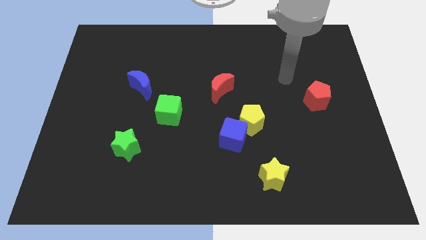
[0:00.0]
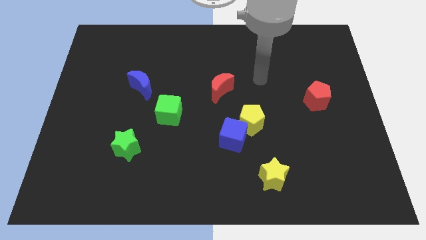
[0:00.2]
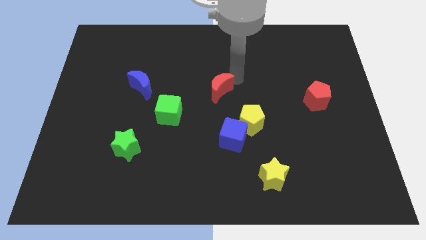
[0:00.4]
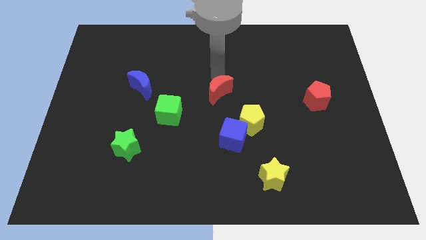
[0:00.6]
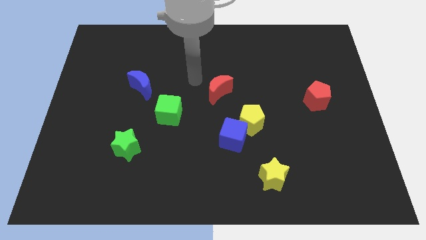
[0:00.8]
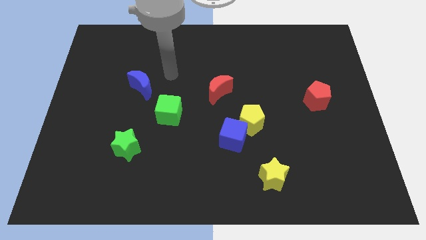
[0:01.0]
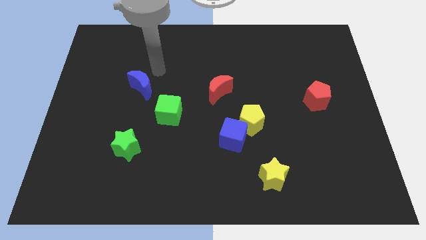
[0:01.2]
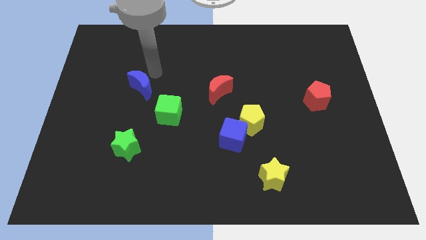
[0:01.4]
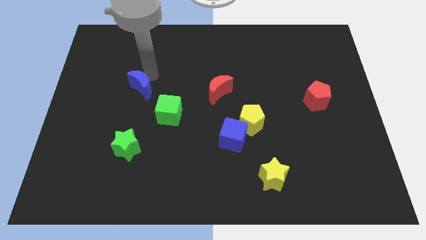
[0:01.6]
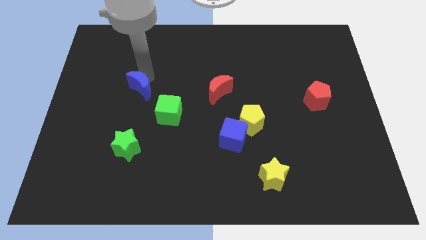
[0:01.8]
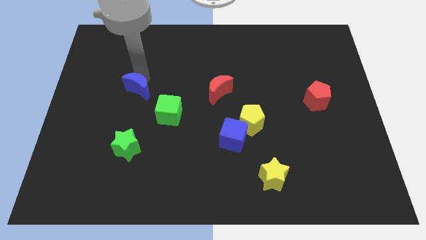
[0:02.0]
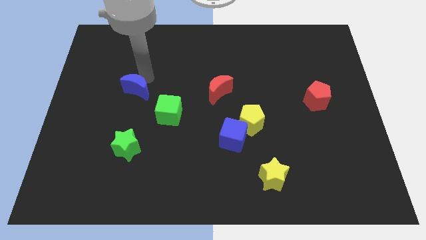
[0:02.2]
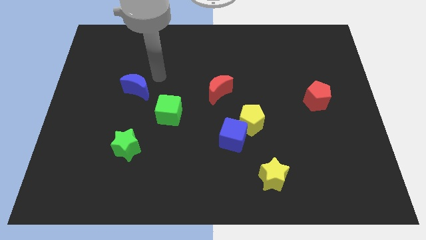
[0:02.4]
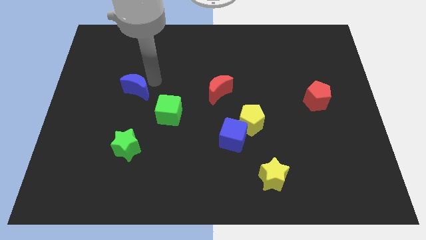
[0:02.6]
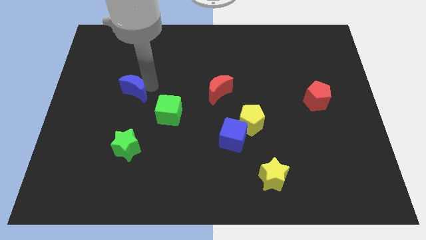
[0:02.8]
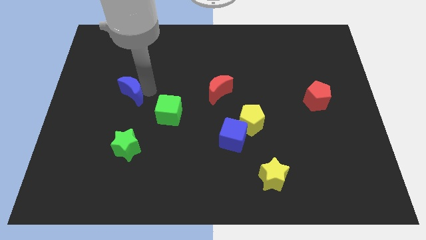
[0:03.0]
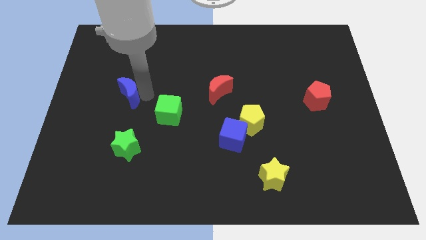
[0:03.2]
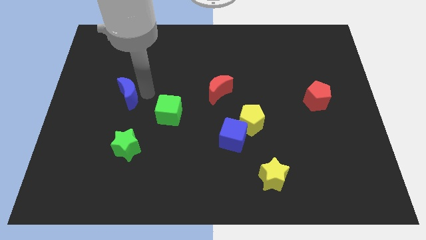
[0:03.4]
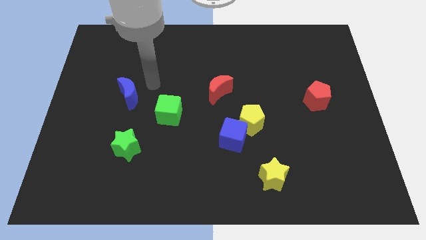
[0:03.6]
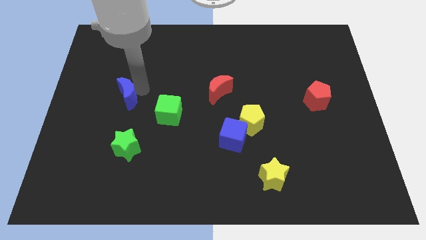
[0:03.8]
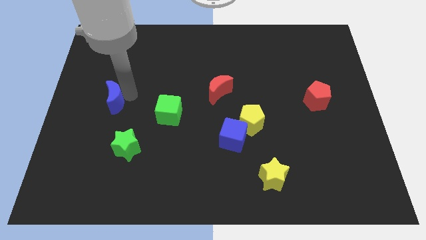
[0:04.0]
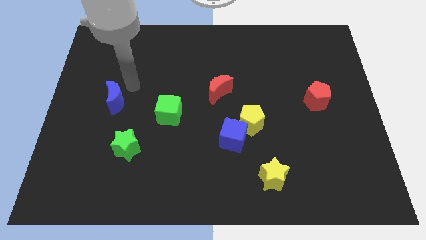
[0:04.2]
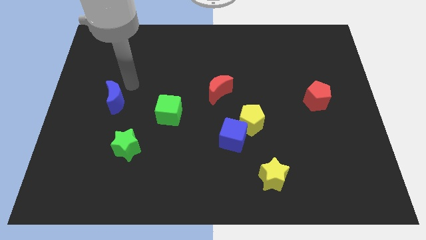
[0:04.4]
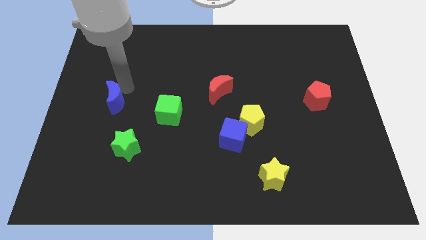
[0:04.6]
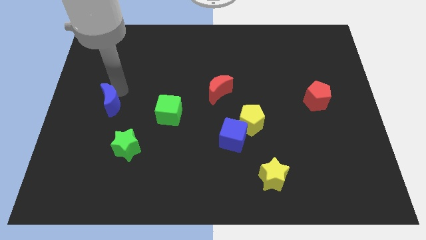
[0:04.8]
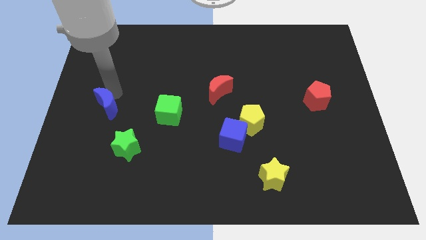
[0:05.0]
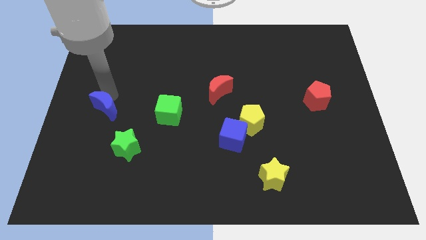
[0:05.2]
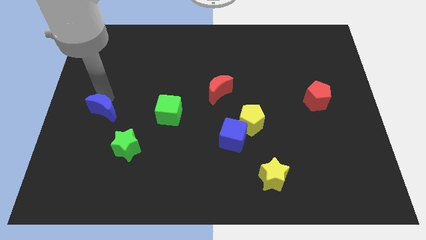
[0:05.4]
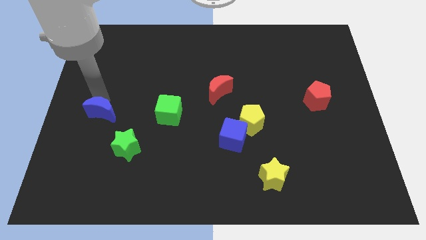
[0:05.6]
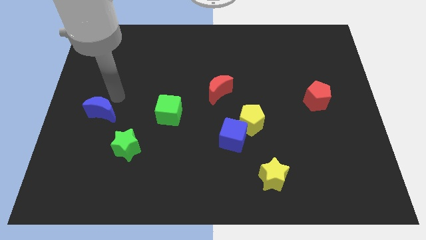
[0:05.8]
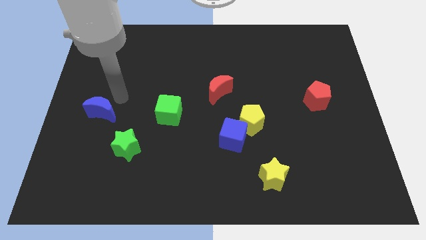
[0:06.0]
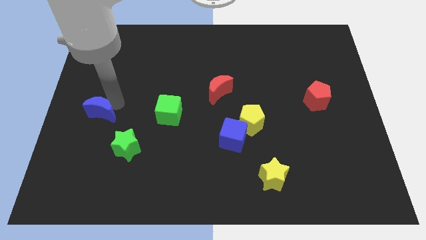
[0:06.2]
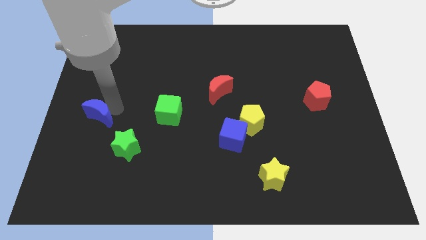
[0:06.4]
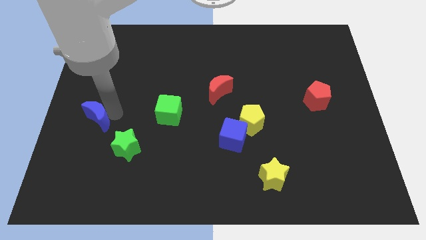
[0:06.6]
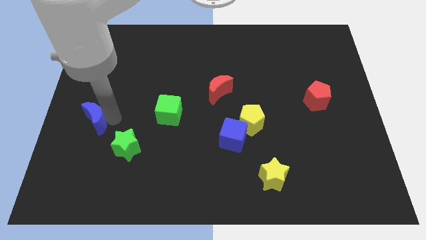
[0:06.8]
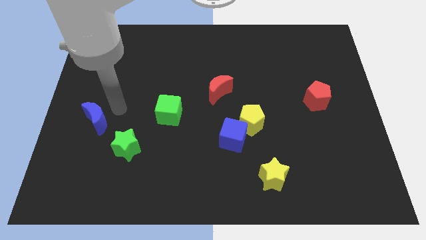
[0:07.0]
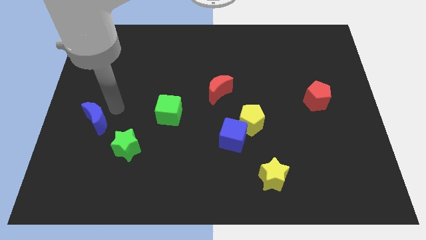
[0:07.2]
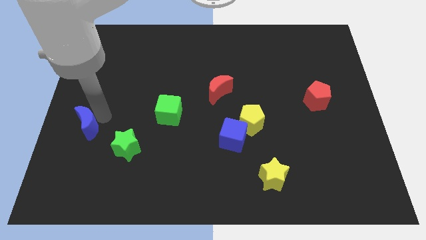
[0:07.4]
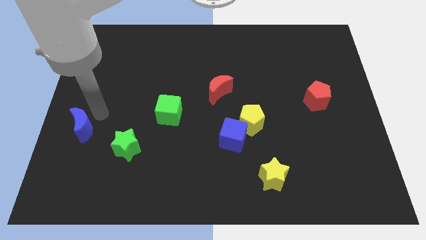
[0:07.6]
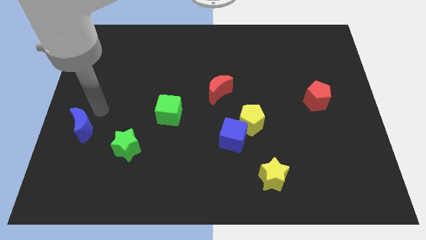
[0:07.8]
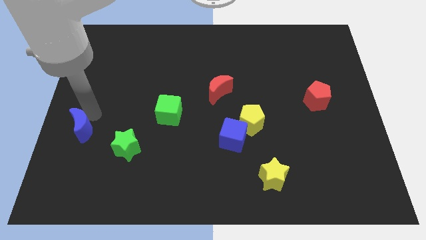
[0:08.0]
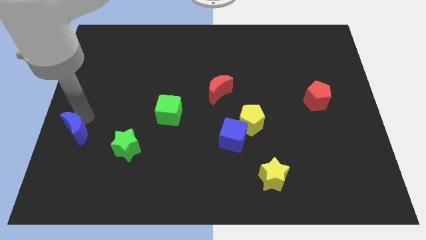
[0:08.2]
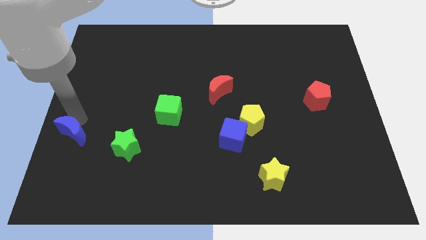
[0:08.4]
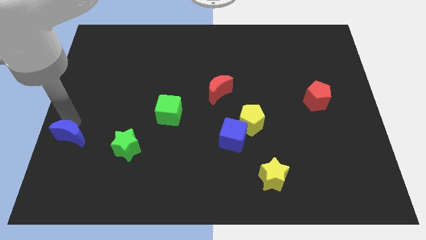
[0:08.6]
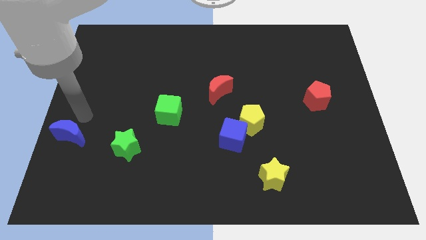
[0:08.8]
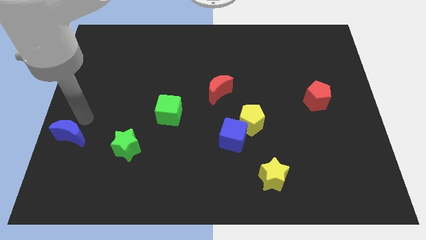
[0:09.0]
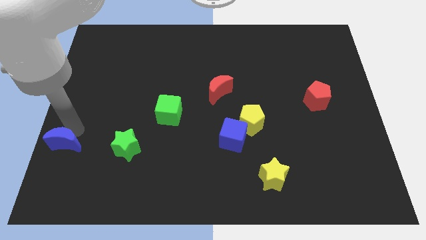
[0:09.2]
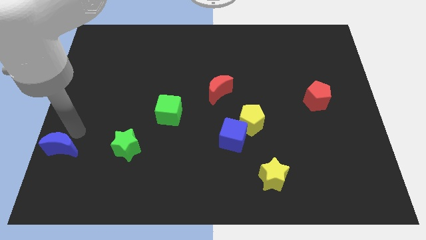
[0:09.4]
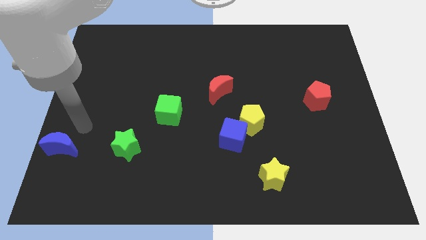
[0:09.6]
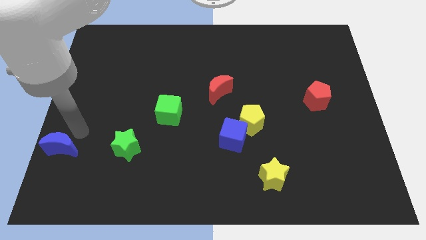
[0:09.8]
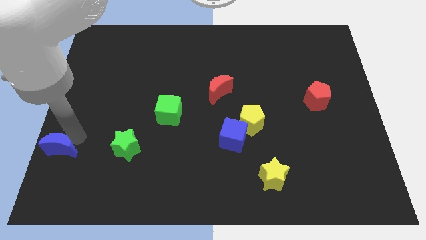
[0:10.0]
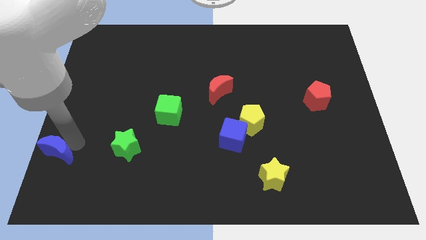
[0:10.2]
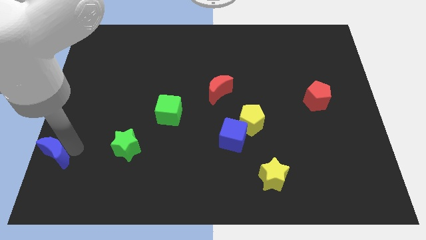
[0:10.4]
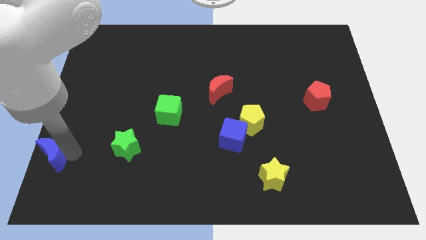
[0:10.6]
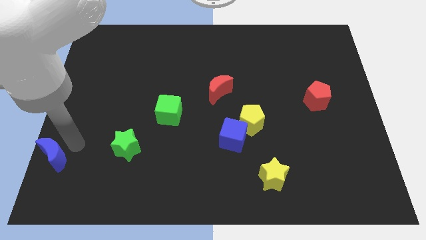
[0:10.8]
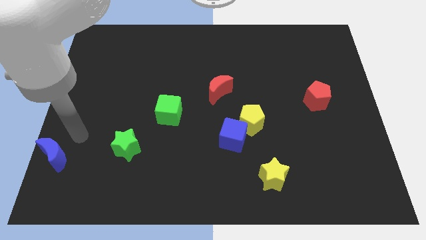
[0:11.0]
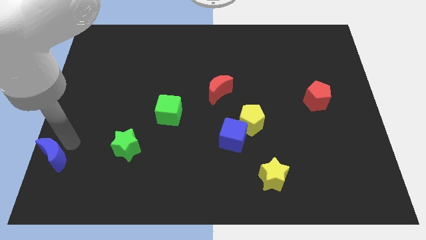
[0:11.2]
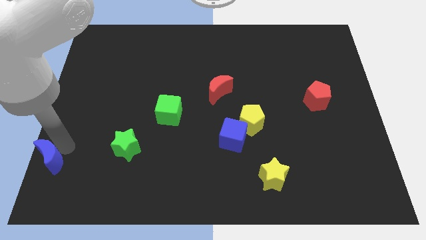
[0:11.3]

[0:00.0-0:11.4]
push the blue moon to the bottom left of the board
